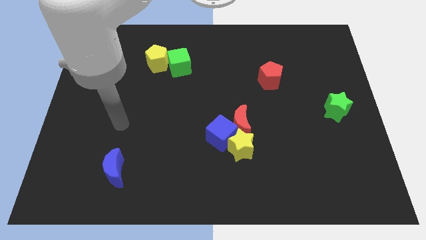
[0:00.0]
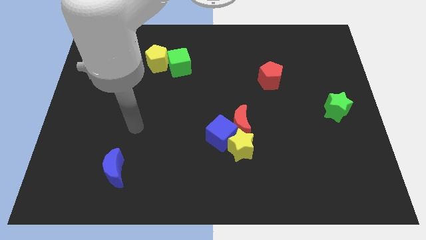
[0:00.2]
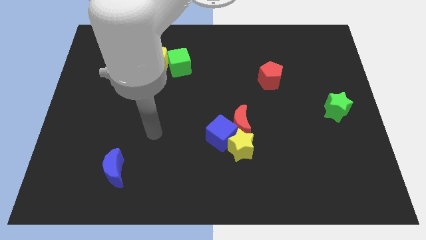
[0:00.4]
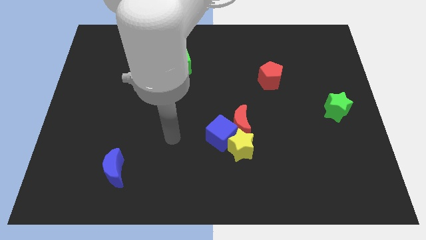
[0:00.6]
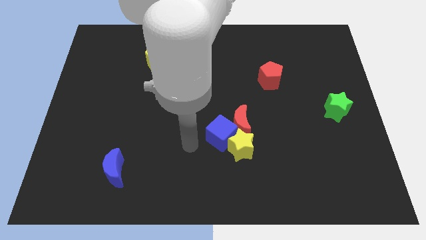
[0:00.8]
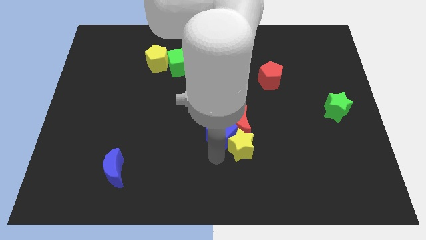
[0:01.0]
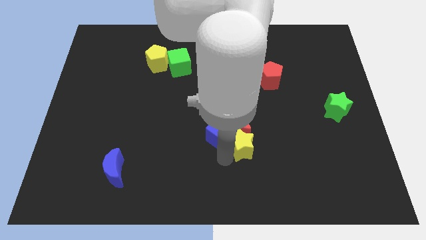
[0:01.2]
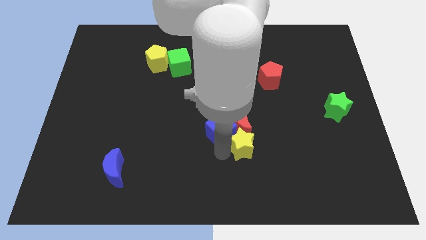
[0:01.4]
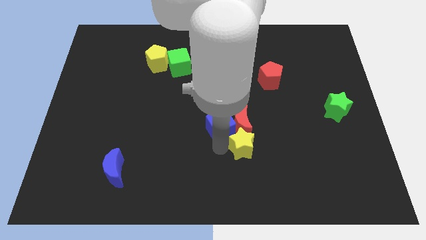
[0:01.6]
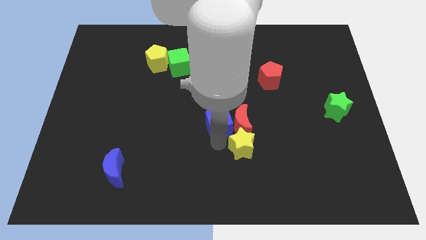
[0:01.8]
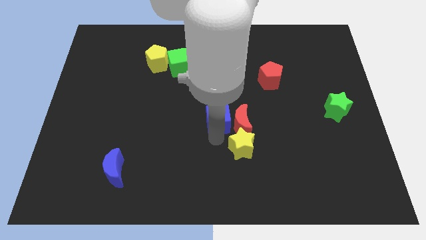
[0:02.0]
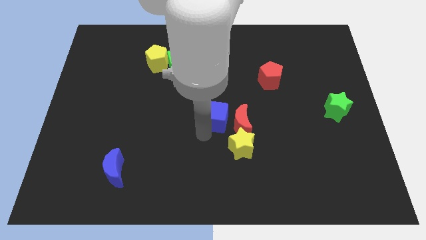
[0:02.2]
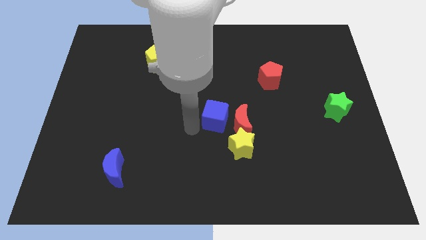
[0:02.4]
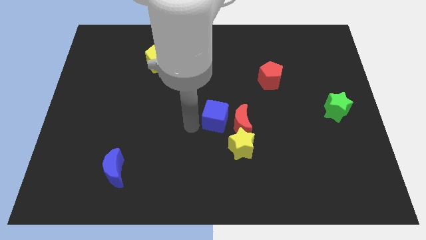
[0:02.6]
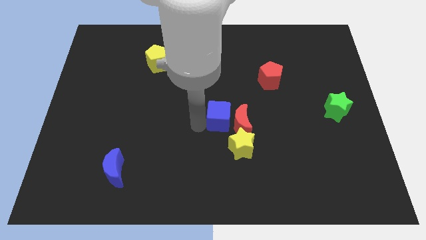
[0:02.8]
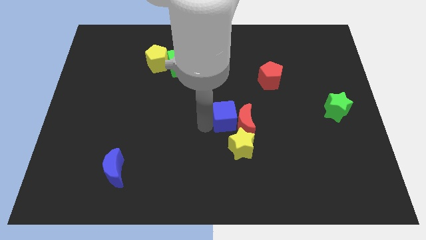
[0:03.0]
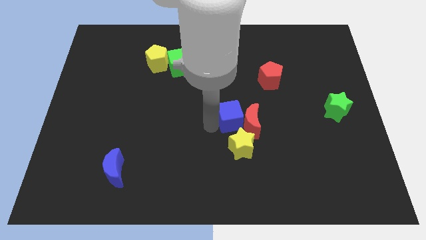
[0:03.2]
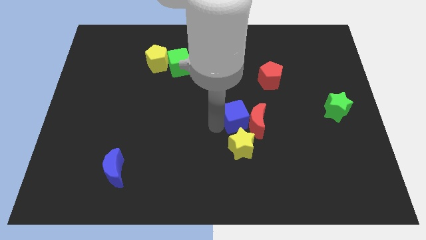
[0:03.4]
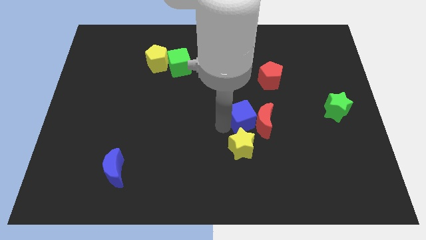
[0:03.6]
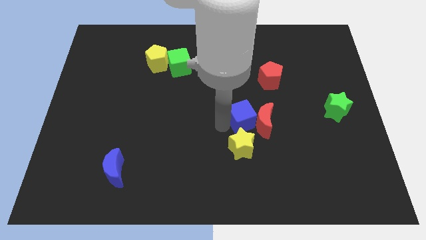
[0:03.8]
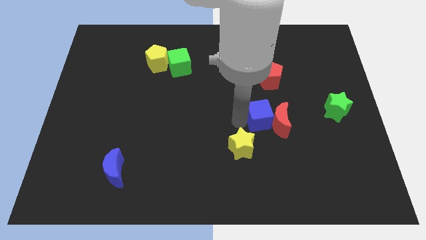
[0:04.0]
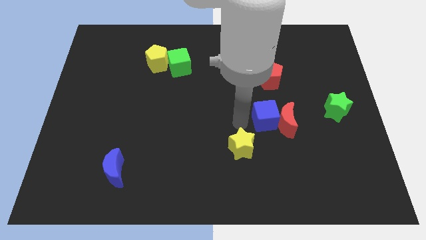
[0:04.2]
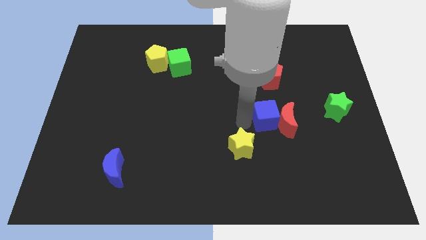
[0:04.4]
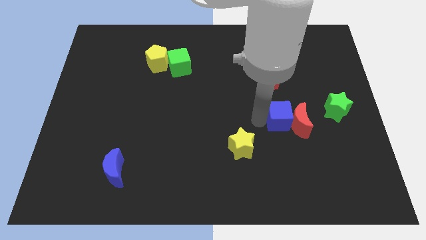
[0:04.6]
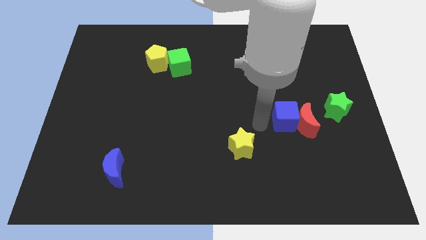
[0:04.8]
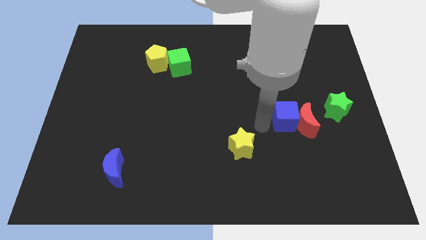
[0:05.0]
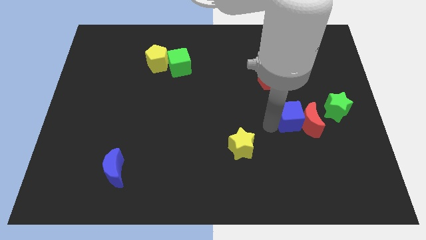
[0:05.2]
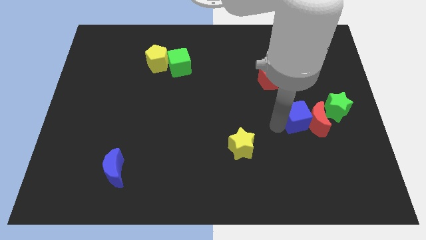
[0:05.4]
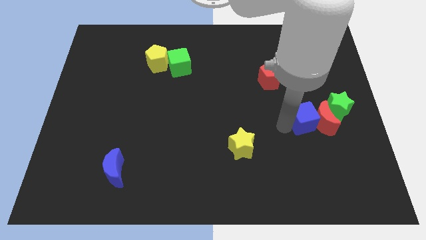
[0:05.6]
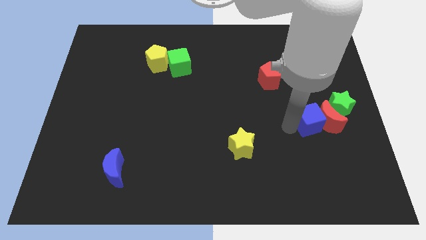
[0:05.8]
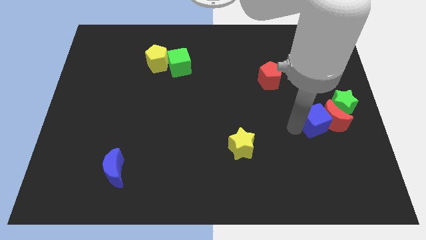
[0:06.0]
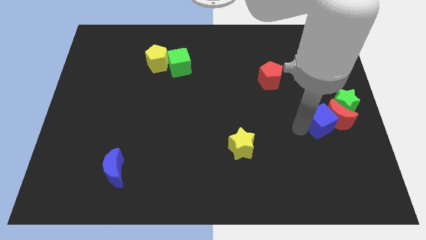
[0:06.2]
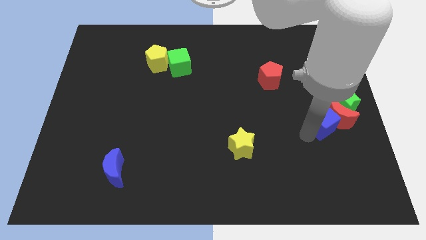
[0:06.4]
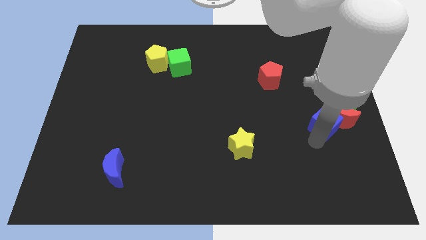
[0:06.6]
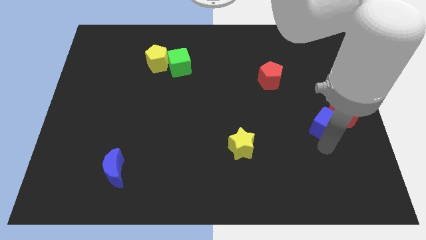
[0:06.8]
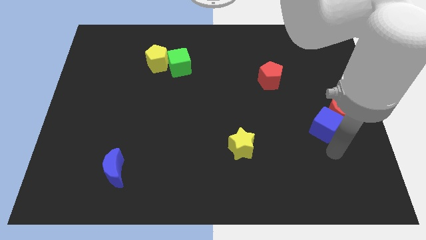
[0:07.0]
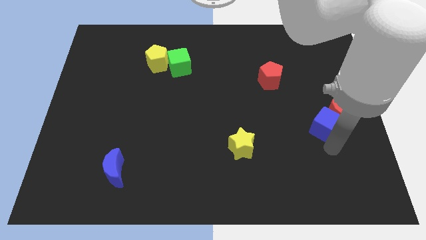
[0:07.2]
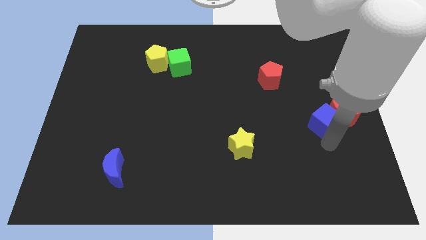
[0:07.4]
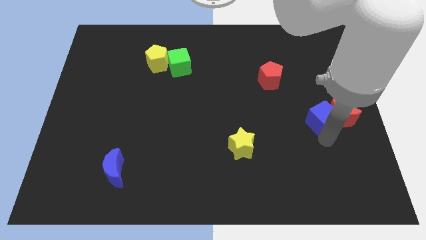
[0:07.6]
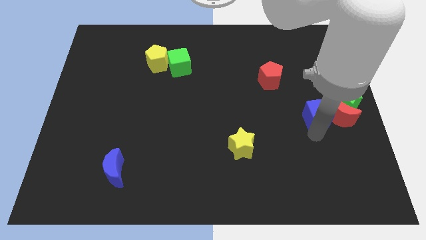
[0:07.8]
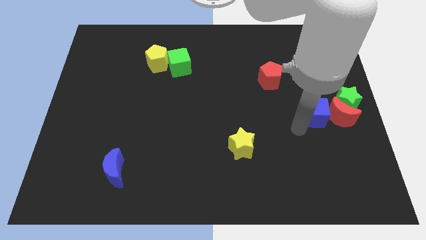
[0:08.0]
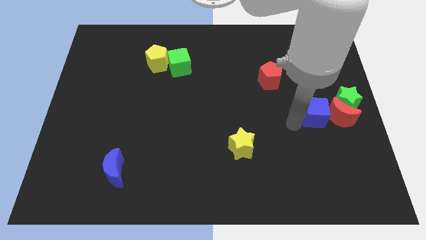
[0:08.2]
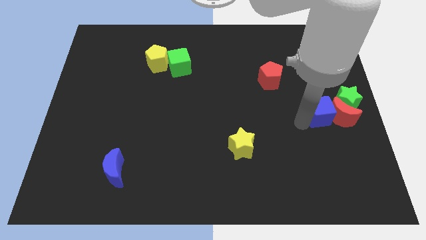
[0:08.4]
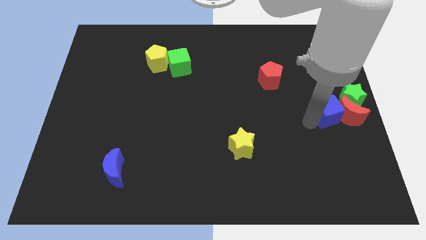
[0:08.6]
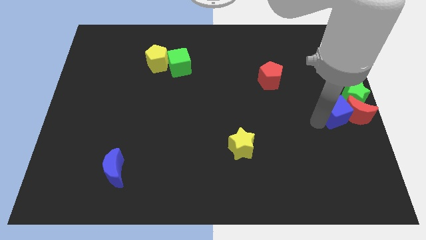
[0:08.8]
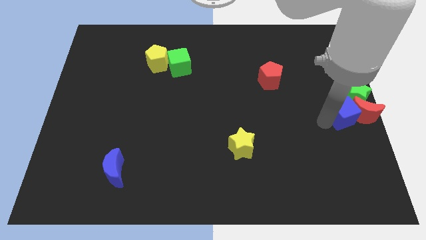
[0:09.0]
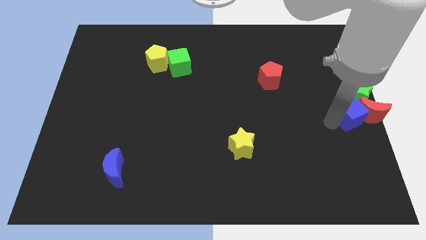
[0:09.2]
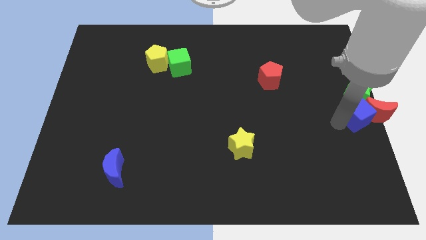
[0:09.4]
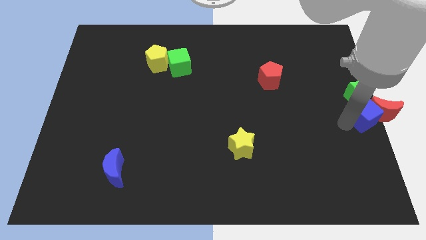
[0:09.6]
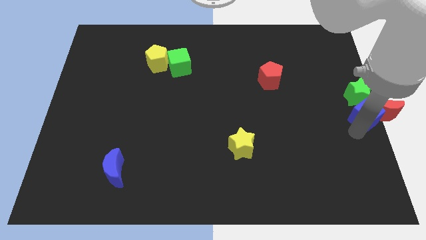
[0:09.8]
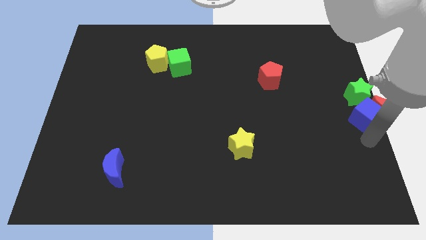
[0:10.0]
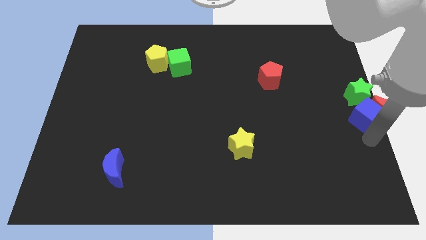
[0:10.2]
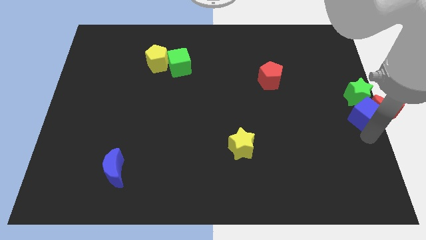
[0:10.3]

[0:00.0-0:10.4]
move the blue cube towards the green star

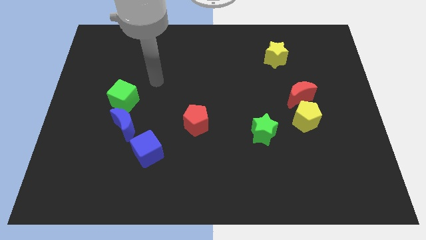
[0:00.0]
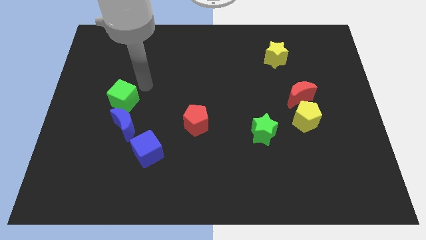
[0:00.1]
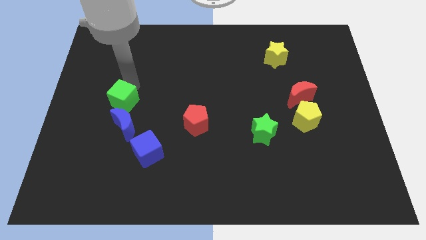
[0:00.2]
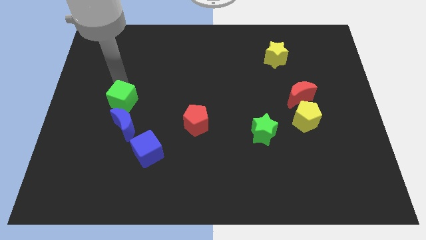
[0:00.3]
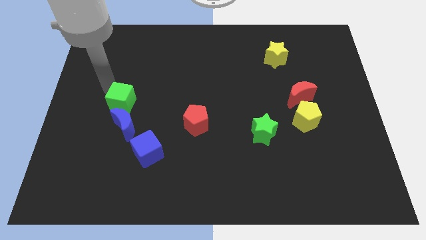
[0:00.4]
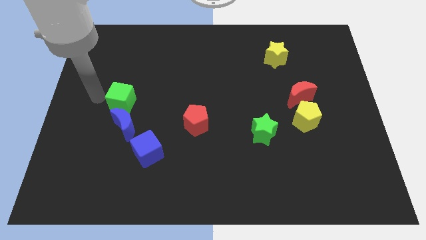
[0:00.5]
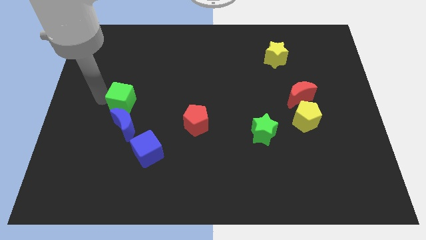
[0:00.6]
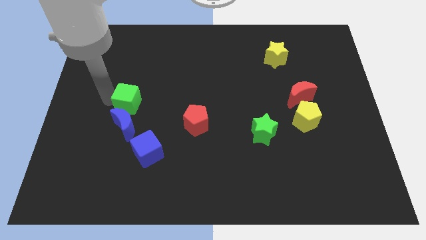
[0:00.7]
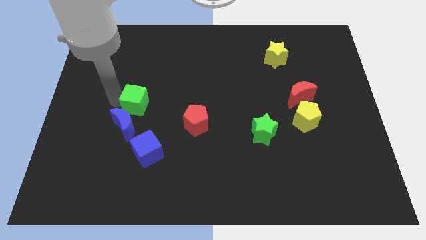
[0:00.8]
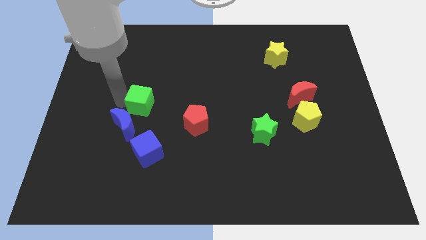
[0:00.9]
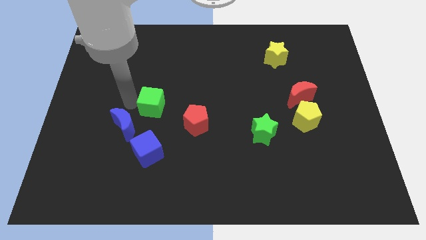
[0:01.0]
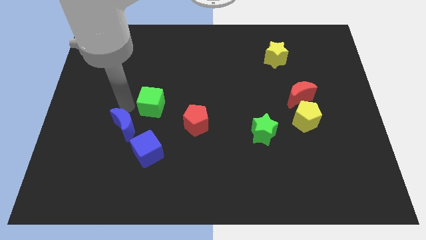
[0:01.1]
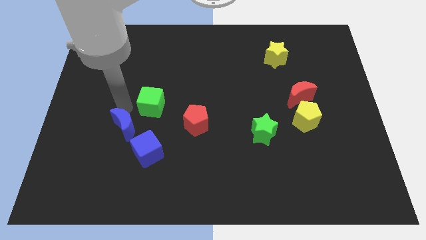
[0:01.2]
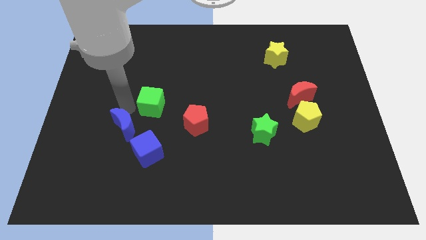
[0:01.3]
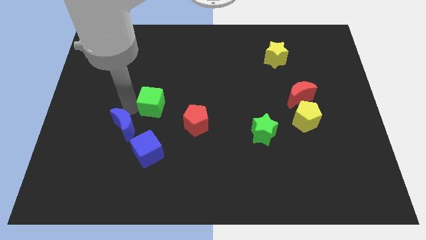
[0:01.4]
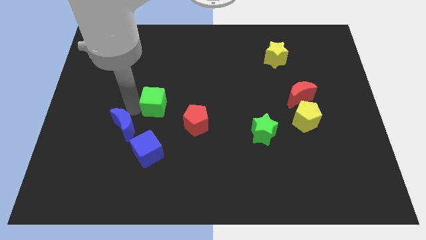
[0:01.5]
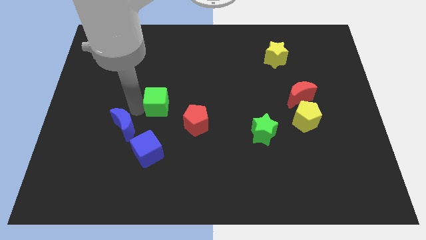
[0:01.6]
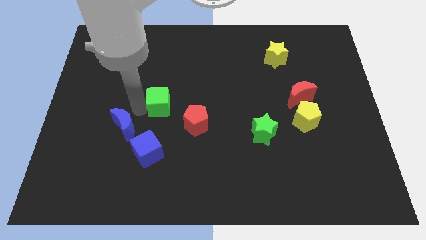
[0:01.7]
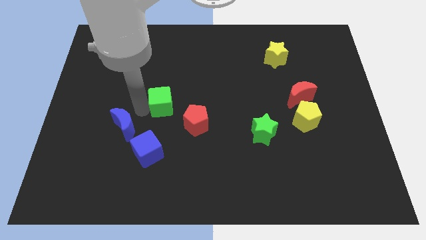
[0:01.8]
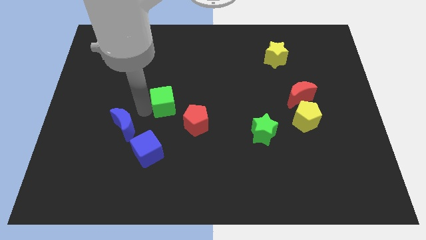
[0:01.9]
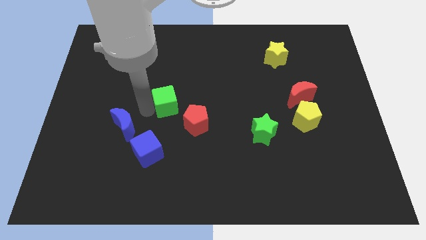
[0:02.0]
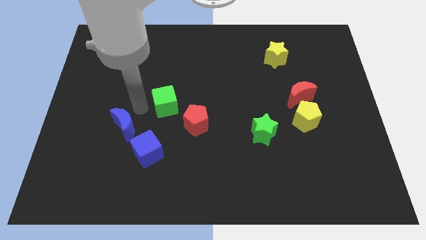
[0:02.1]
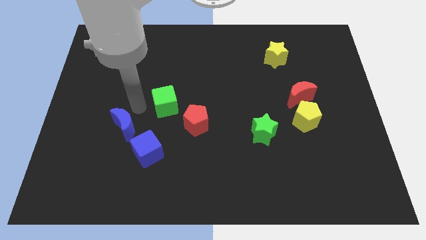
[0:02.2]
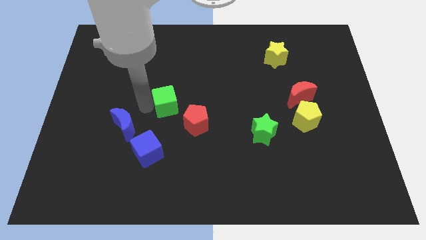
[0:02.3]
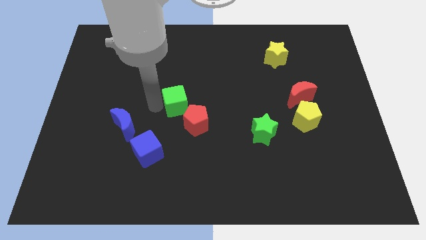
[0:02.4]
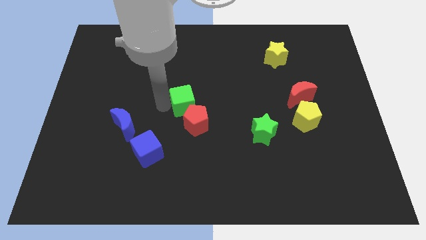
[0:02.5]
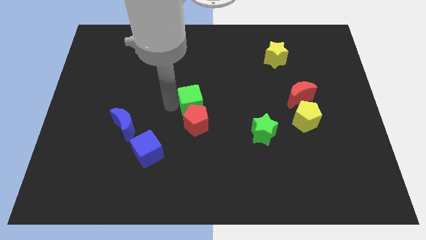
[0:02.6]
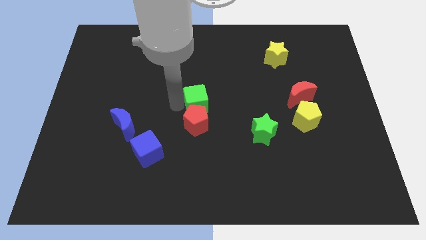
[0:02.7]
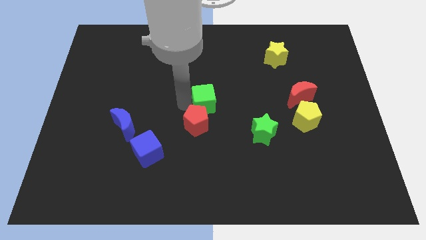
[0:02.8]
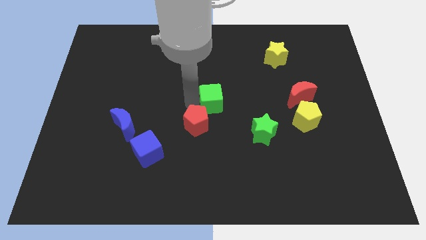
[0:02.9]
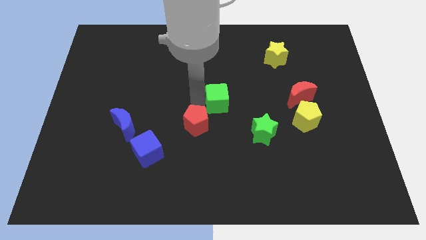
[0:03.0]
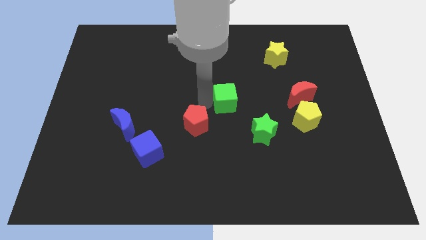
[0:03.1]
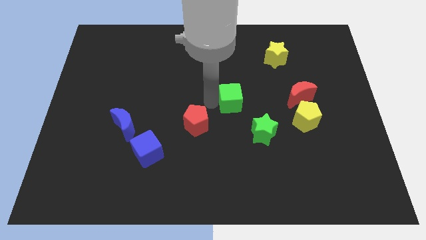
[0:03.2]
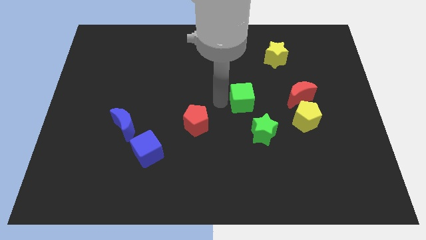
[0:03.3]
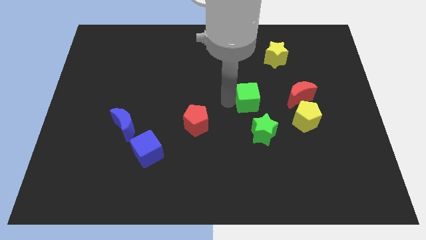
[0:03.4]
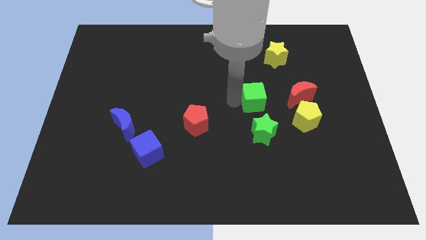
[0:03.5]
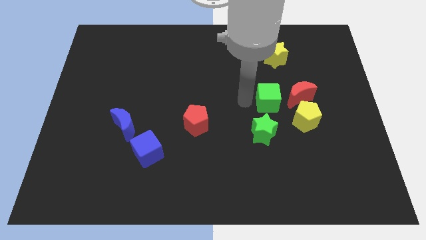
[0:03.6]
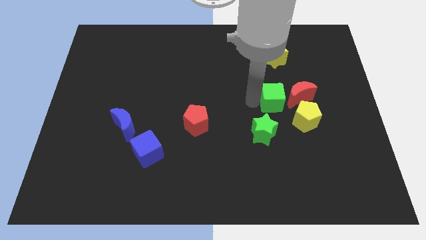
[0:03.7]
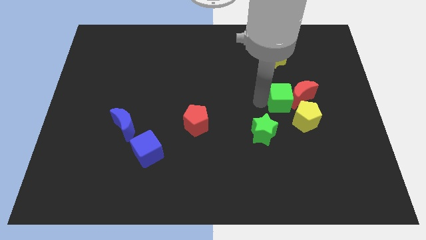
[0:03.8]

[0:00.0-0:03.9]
put the green cube towards the red moon
